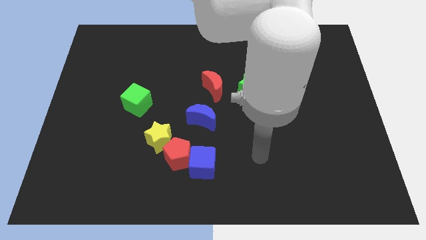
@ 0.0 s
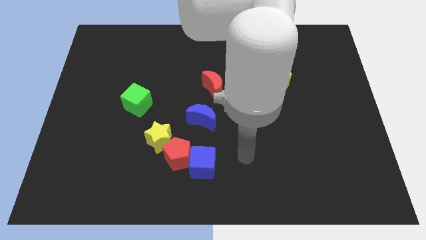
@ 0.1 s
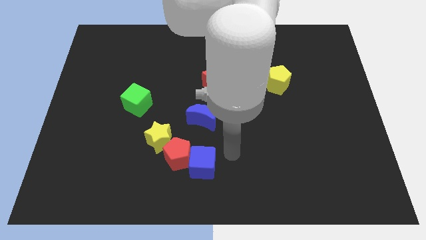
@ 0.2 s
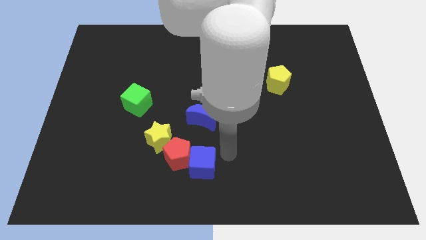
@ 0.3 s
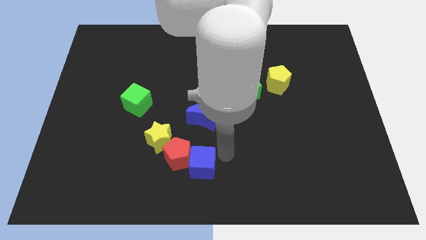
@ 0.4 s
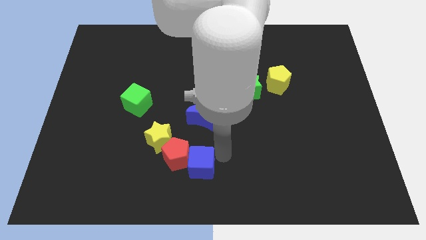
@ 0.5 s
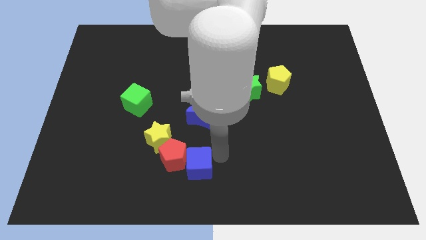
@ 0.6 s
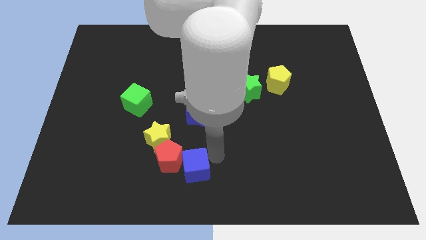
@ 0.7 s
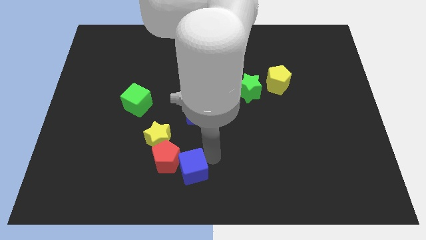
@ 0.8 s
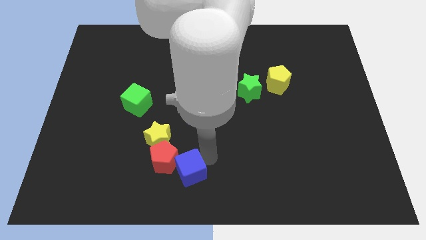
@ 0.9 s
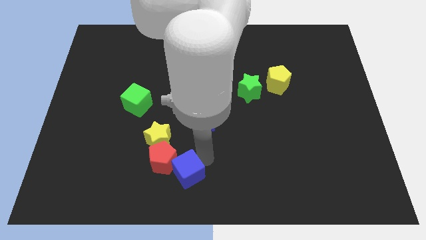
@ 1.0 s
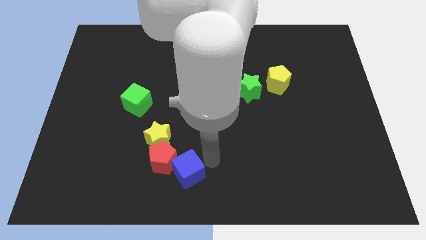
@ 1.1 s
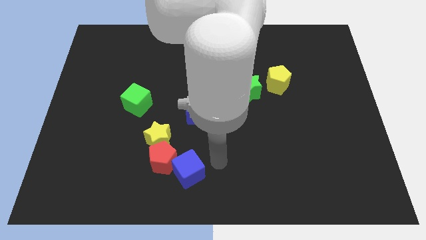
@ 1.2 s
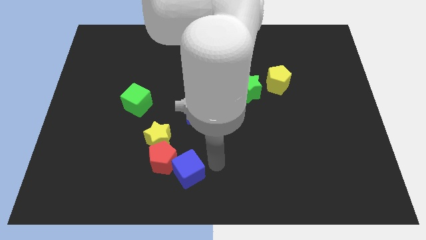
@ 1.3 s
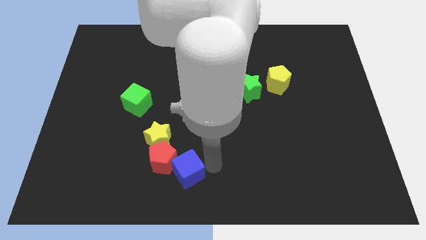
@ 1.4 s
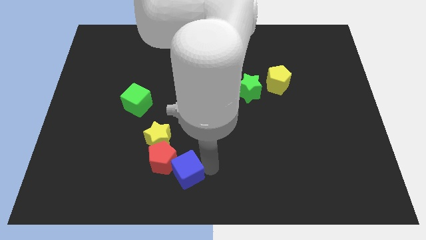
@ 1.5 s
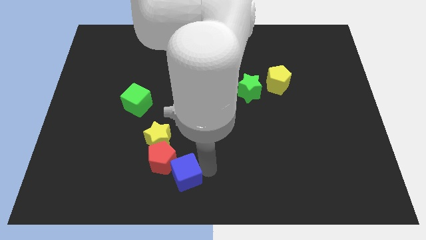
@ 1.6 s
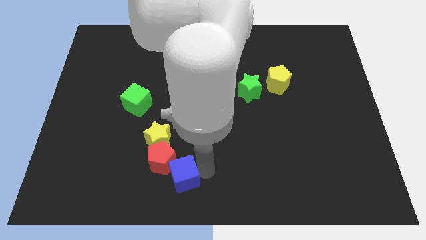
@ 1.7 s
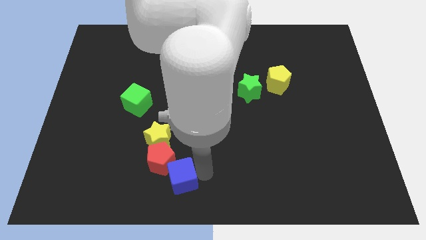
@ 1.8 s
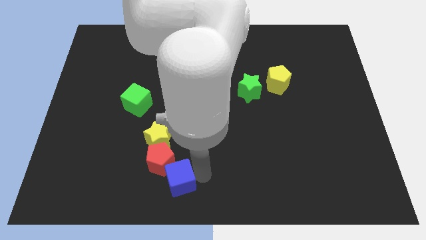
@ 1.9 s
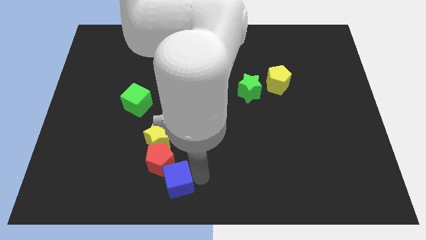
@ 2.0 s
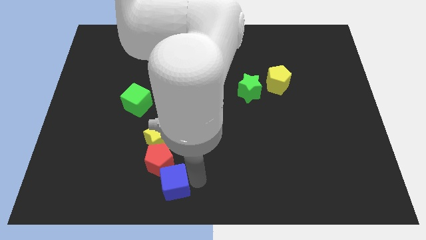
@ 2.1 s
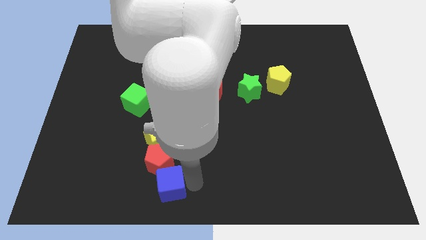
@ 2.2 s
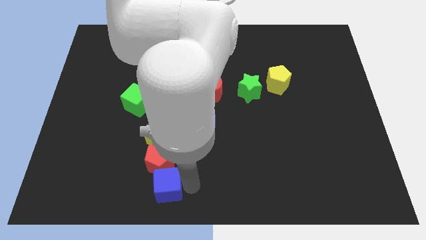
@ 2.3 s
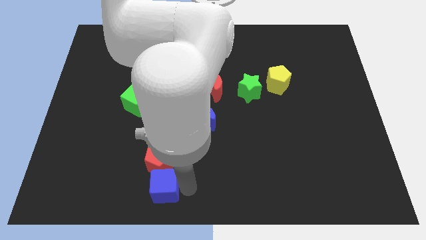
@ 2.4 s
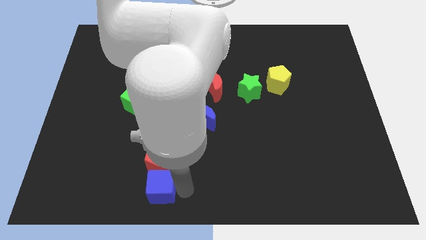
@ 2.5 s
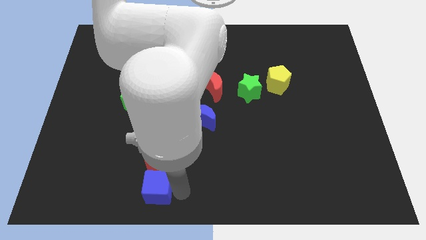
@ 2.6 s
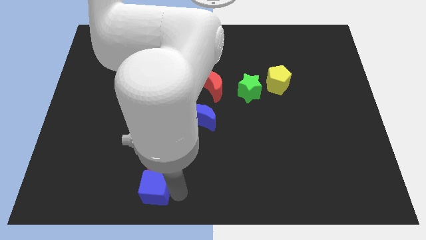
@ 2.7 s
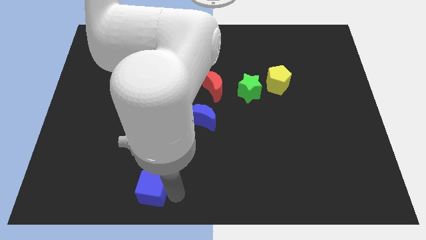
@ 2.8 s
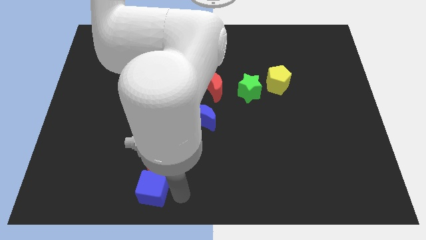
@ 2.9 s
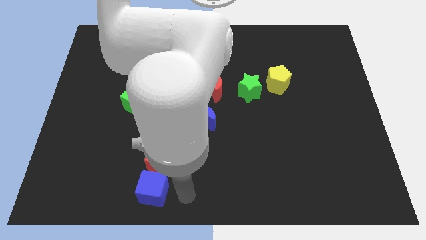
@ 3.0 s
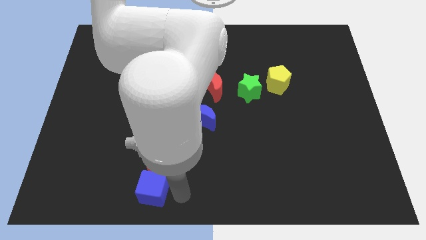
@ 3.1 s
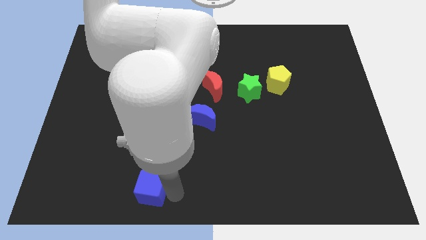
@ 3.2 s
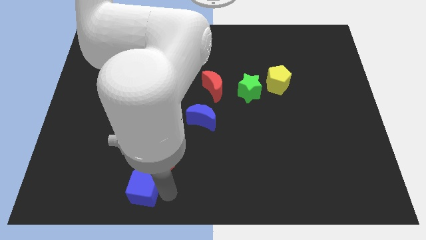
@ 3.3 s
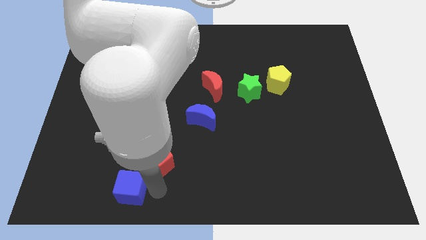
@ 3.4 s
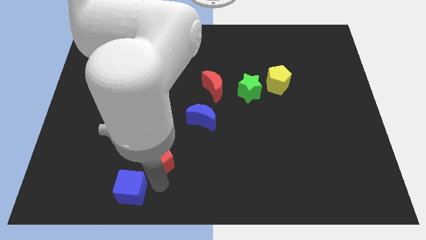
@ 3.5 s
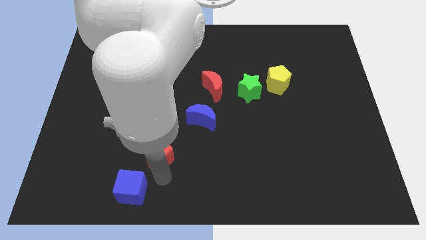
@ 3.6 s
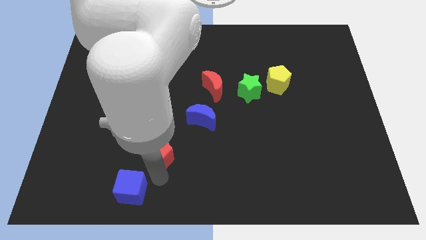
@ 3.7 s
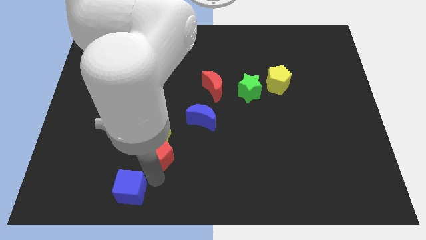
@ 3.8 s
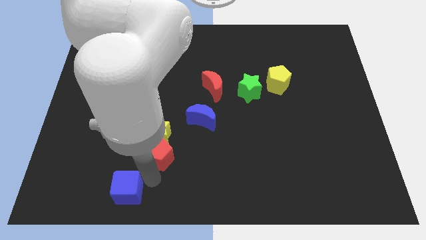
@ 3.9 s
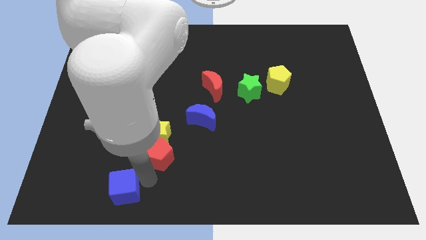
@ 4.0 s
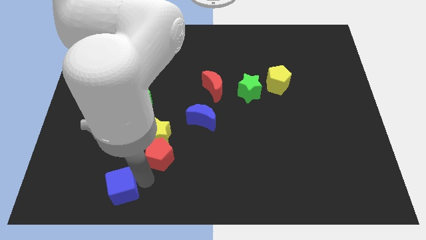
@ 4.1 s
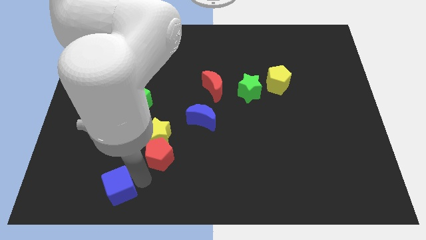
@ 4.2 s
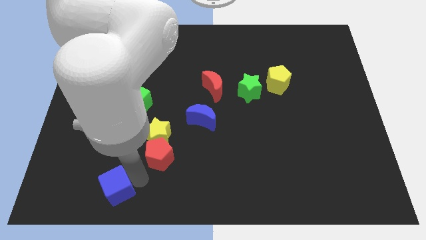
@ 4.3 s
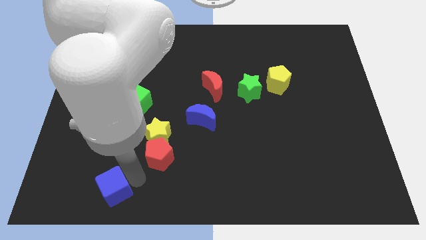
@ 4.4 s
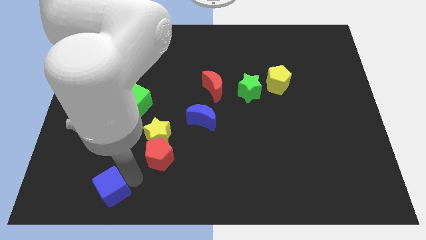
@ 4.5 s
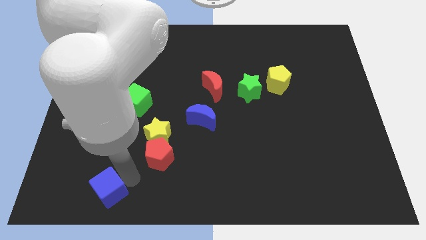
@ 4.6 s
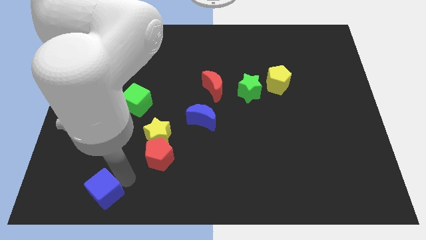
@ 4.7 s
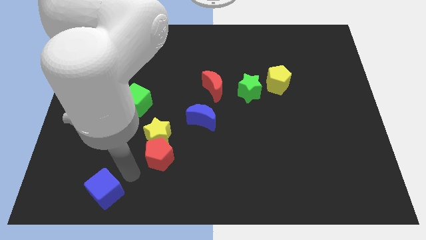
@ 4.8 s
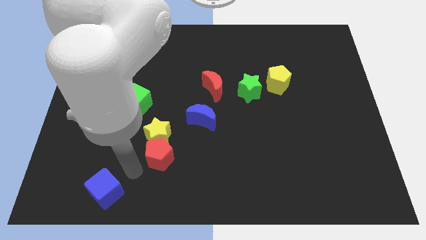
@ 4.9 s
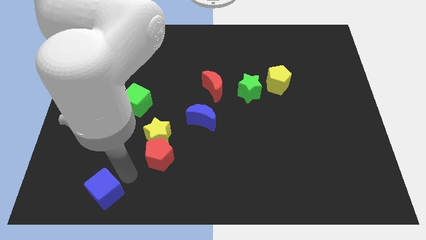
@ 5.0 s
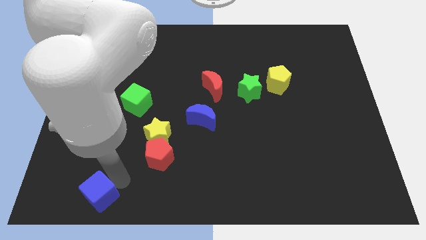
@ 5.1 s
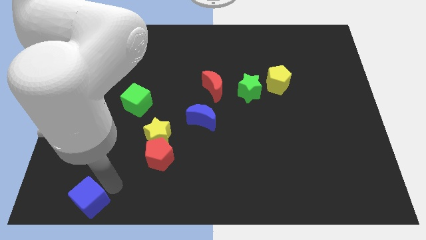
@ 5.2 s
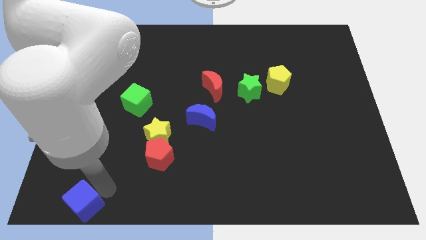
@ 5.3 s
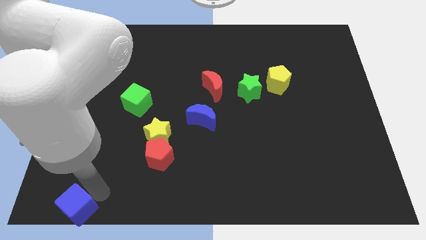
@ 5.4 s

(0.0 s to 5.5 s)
put the blue cube to the bottom left corner

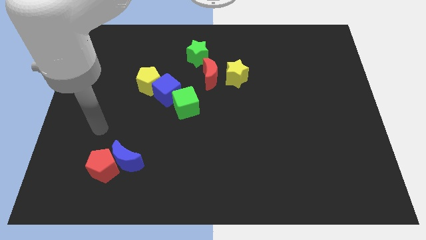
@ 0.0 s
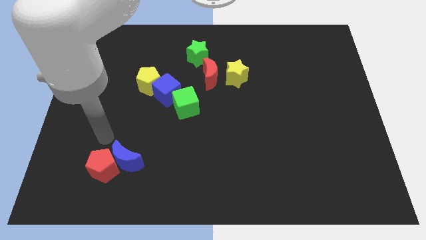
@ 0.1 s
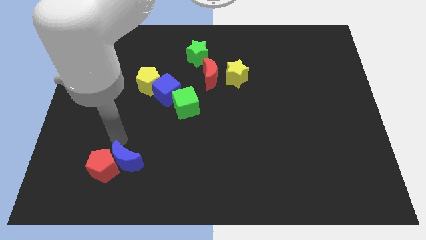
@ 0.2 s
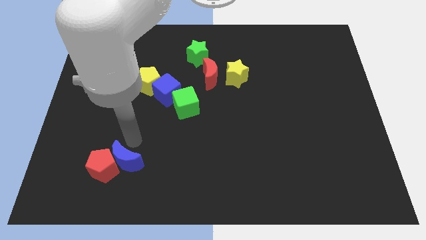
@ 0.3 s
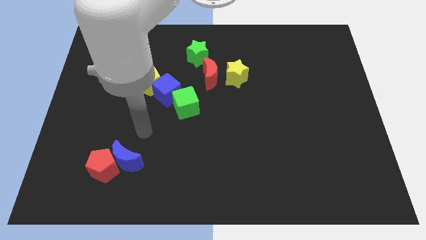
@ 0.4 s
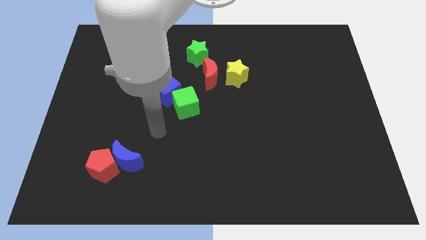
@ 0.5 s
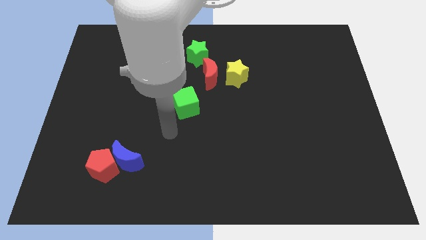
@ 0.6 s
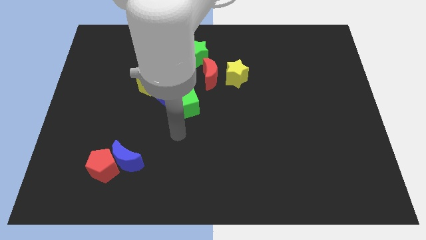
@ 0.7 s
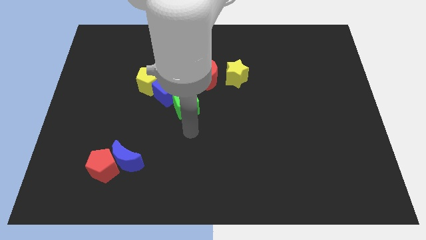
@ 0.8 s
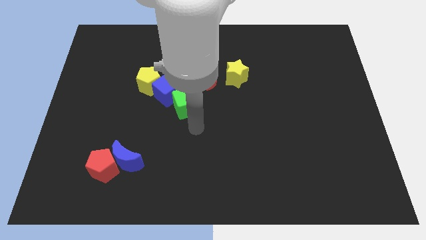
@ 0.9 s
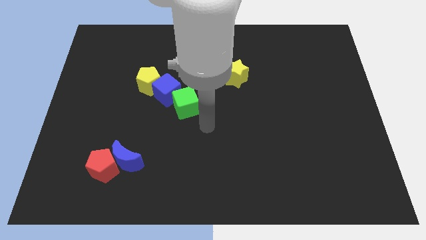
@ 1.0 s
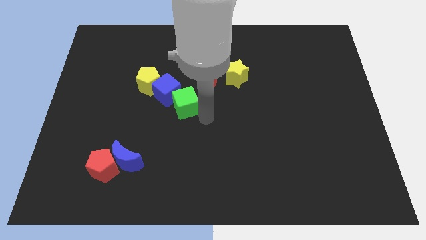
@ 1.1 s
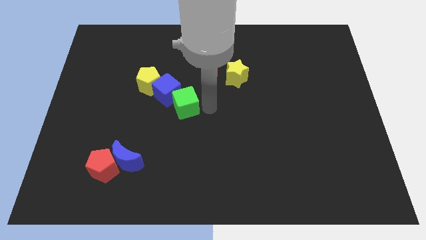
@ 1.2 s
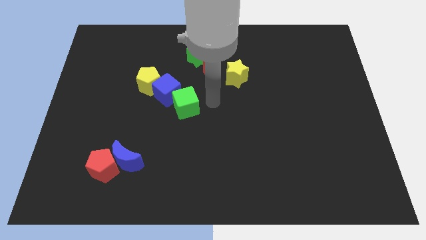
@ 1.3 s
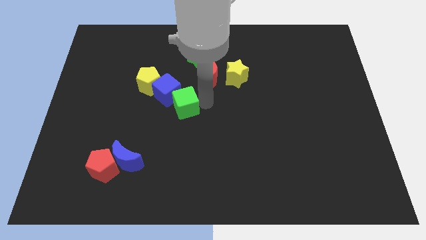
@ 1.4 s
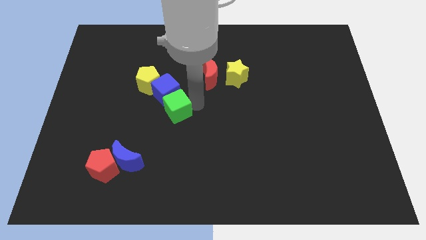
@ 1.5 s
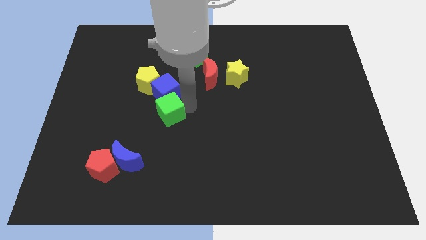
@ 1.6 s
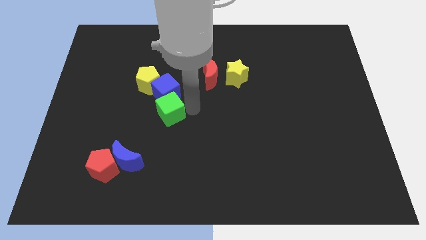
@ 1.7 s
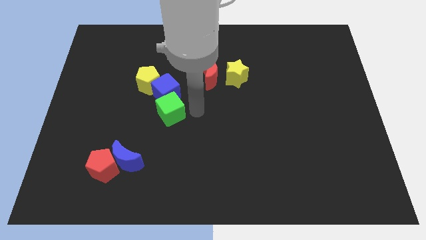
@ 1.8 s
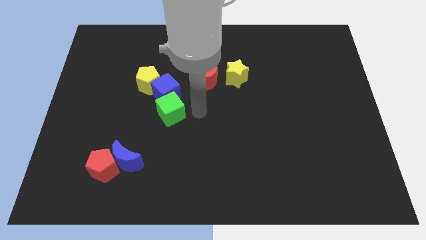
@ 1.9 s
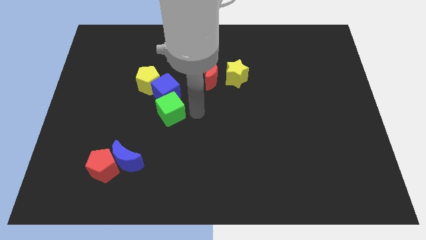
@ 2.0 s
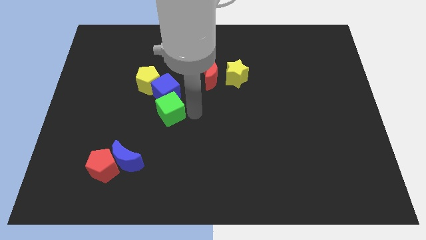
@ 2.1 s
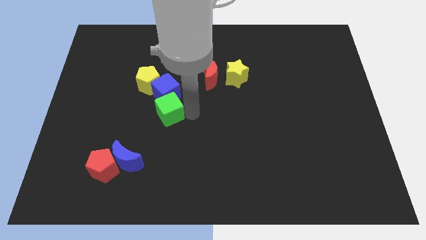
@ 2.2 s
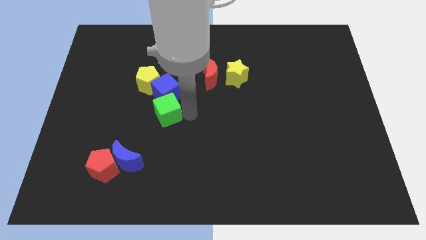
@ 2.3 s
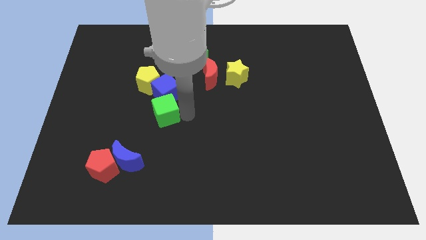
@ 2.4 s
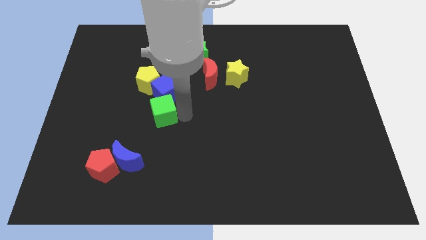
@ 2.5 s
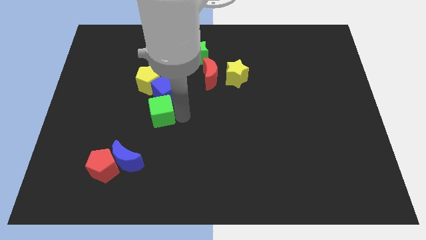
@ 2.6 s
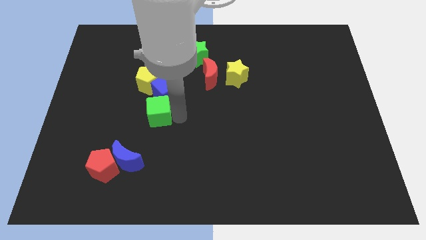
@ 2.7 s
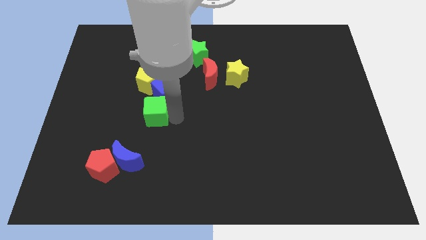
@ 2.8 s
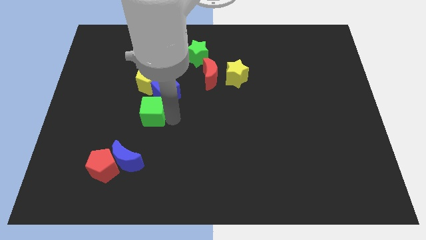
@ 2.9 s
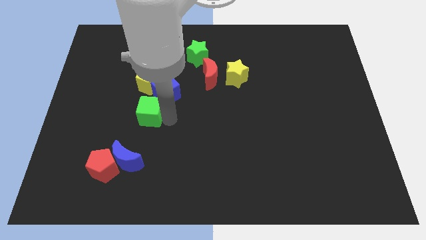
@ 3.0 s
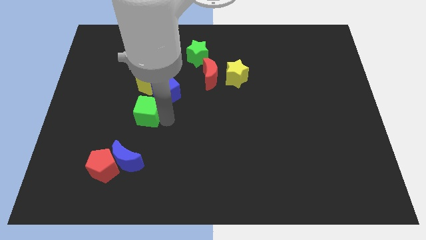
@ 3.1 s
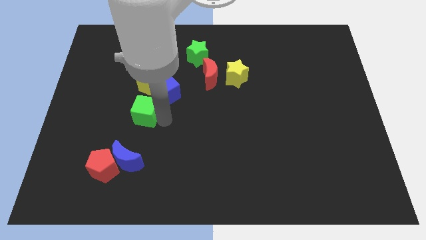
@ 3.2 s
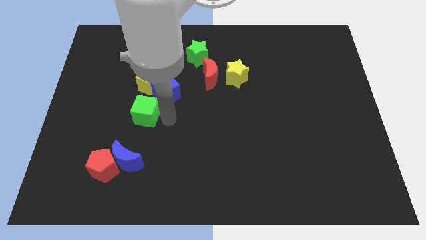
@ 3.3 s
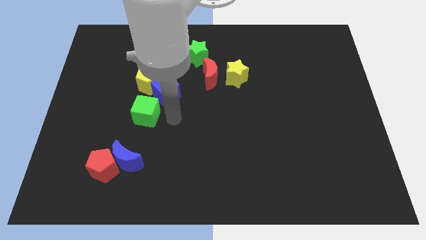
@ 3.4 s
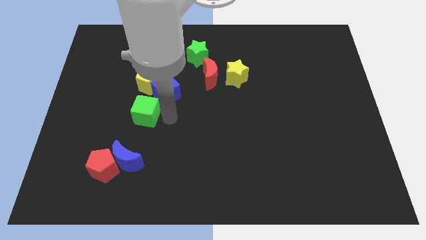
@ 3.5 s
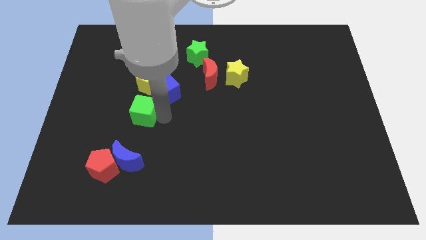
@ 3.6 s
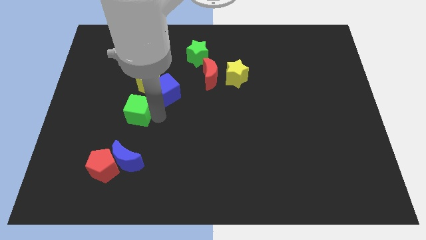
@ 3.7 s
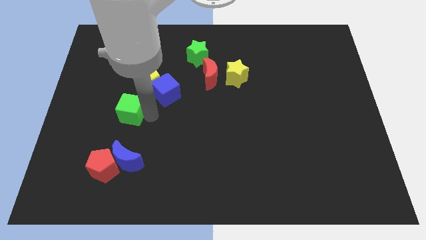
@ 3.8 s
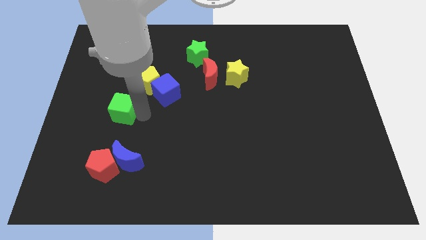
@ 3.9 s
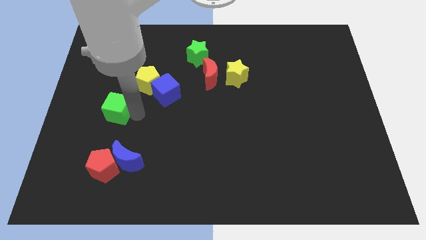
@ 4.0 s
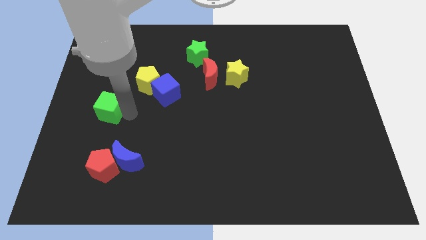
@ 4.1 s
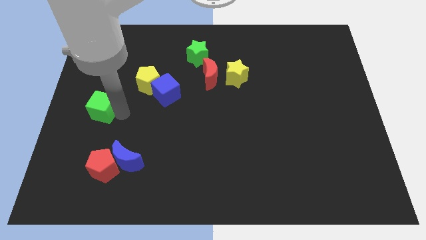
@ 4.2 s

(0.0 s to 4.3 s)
push the green cube to the left side
